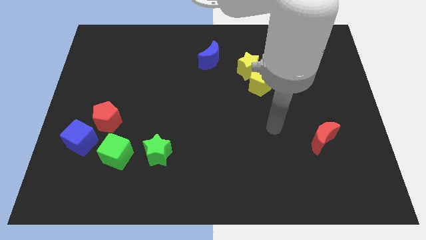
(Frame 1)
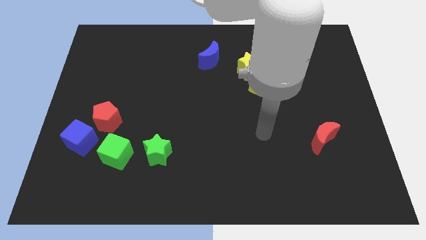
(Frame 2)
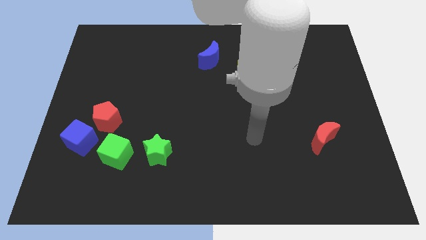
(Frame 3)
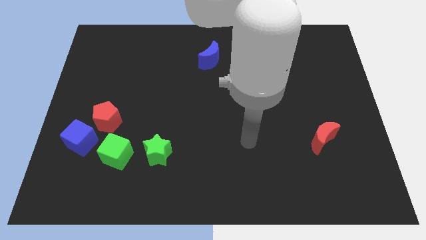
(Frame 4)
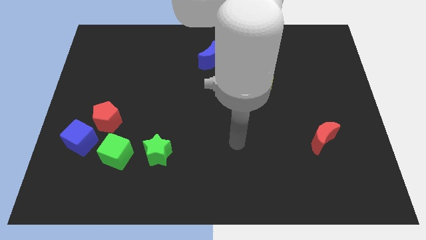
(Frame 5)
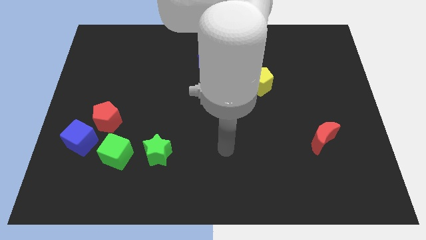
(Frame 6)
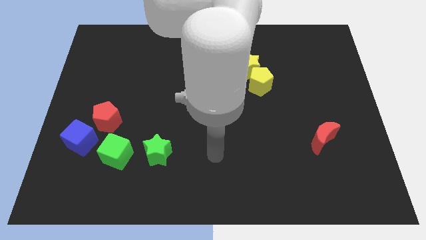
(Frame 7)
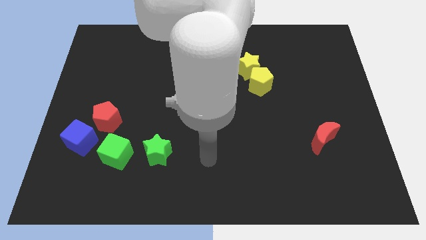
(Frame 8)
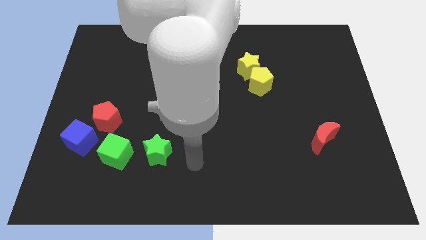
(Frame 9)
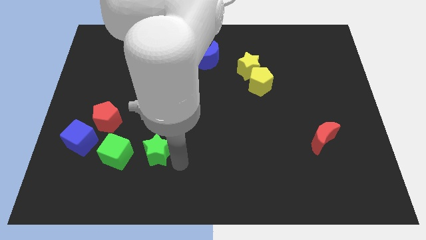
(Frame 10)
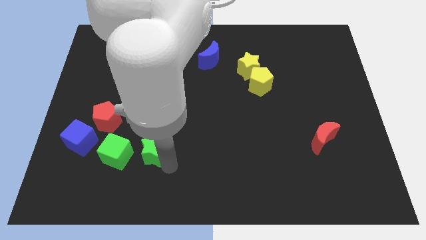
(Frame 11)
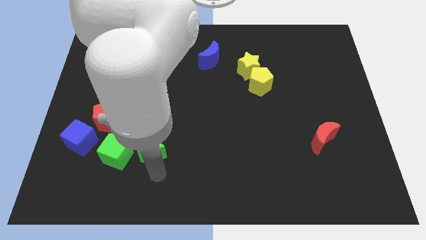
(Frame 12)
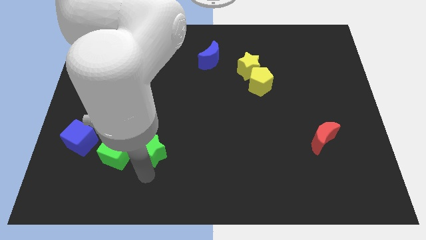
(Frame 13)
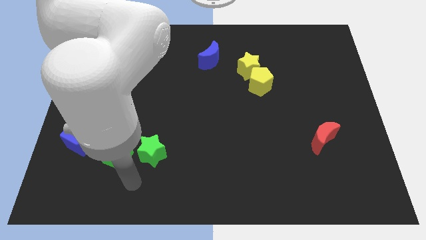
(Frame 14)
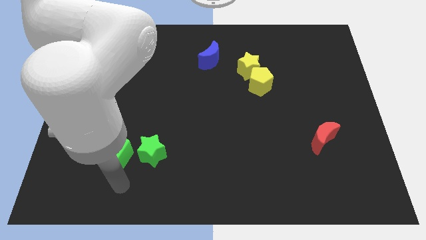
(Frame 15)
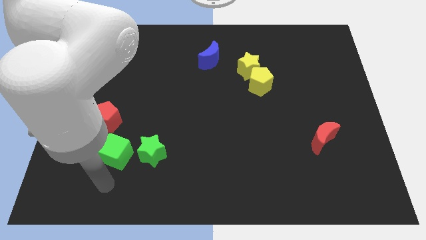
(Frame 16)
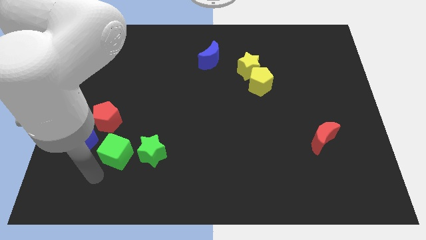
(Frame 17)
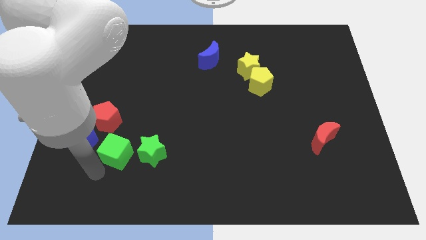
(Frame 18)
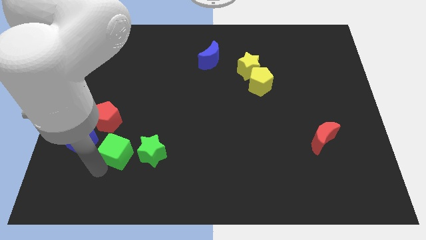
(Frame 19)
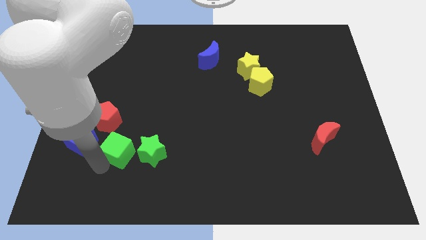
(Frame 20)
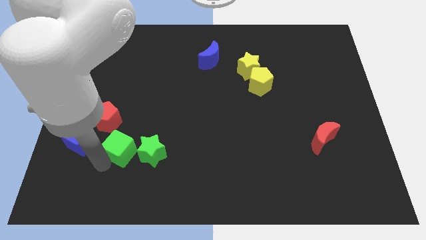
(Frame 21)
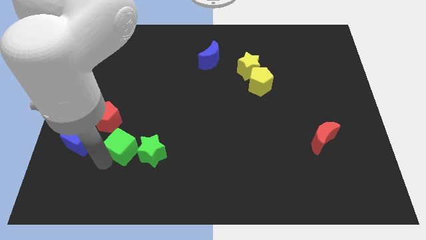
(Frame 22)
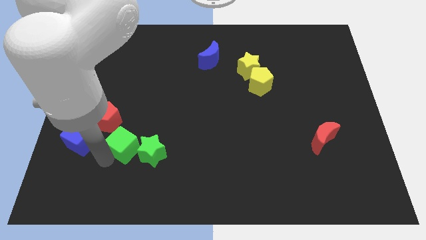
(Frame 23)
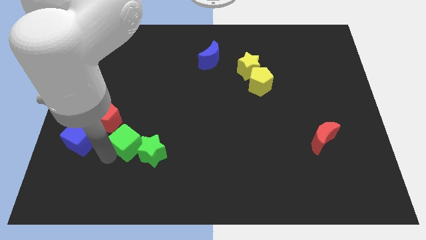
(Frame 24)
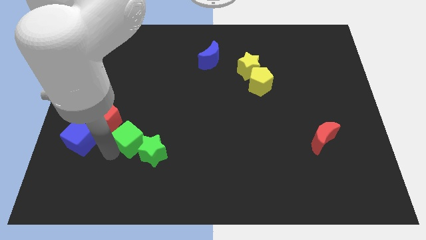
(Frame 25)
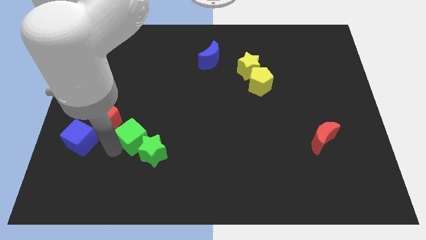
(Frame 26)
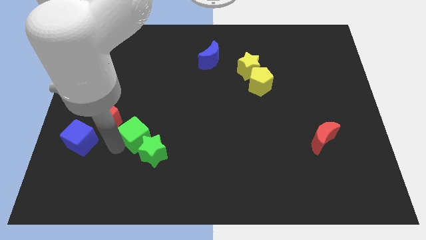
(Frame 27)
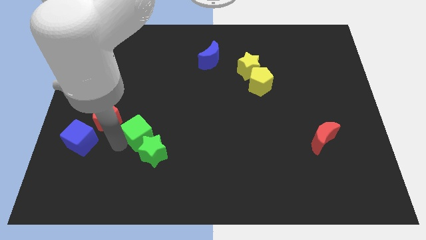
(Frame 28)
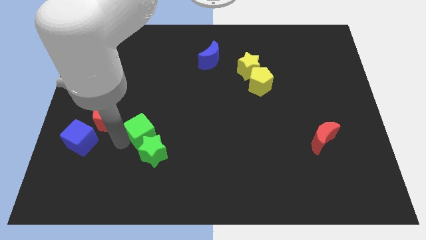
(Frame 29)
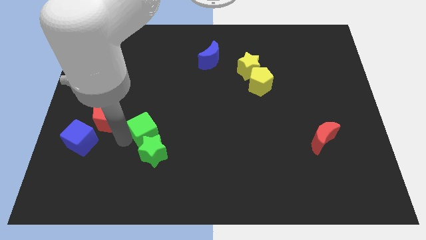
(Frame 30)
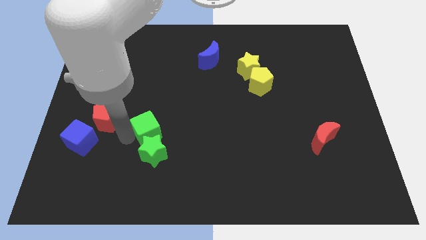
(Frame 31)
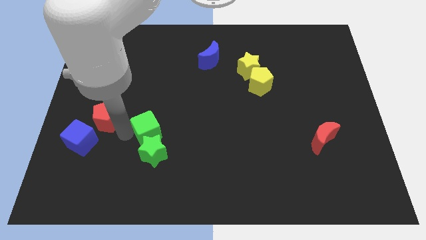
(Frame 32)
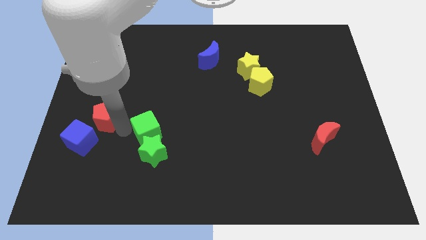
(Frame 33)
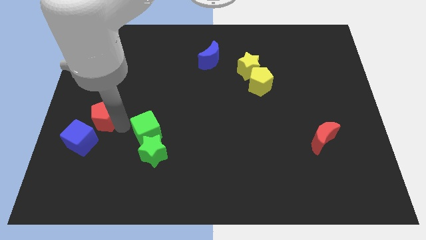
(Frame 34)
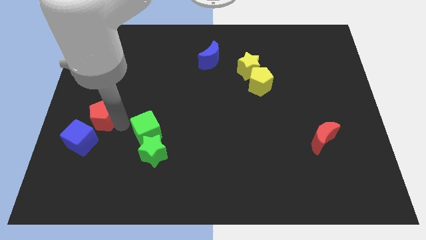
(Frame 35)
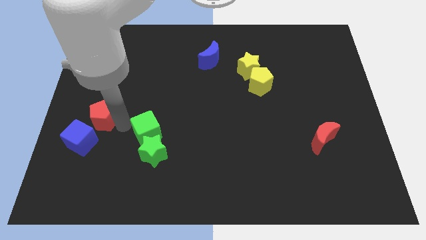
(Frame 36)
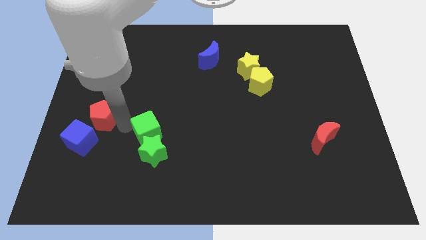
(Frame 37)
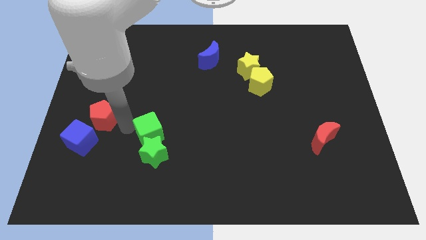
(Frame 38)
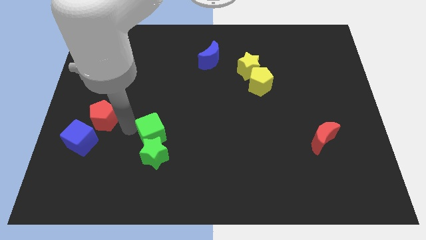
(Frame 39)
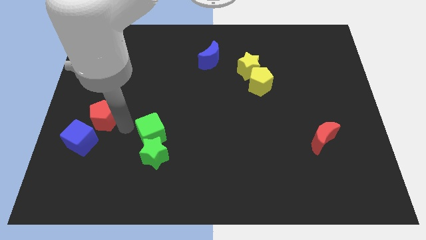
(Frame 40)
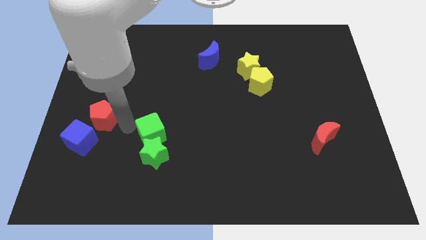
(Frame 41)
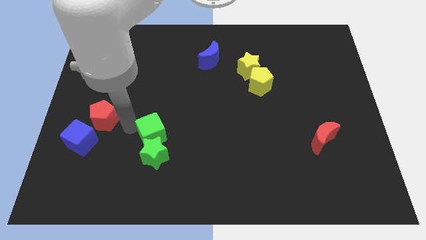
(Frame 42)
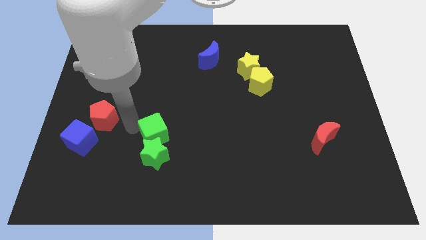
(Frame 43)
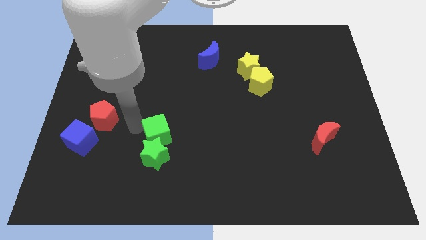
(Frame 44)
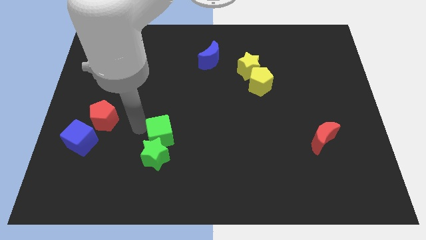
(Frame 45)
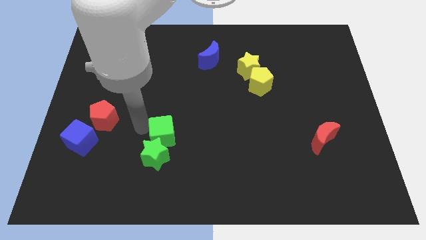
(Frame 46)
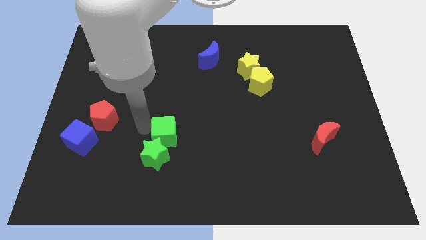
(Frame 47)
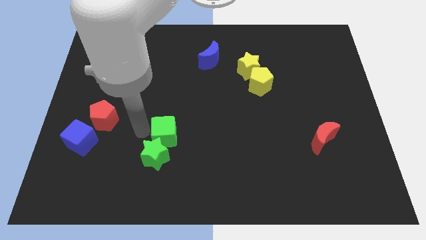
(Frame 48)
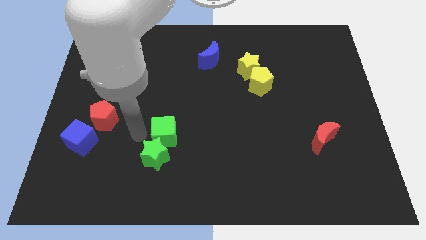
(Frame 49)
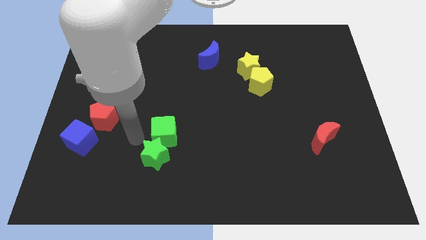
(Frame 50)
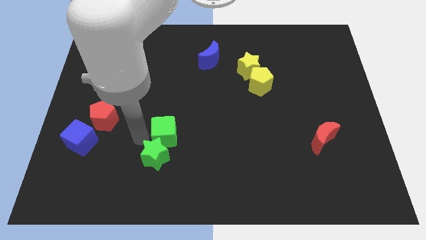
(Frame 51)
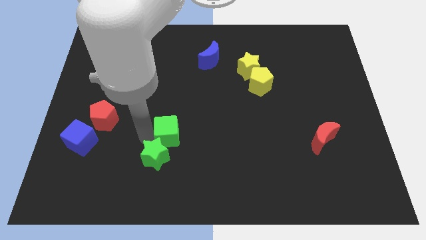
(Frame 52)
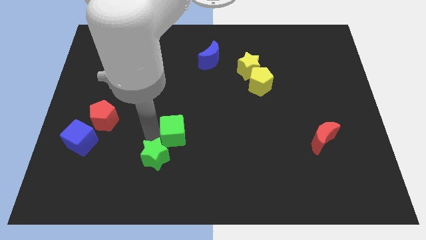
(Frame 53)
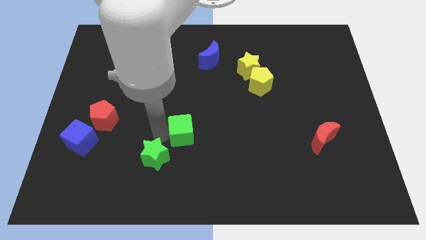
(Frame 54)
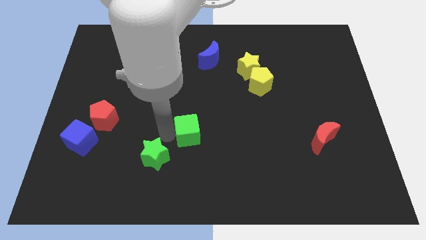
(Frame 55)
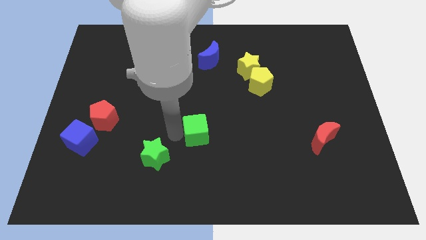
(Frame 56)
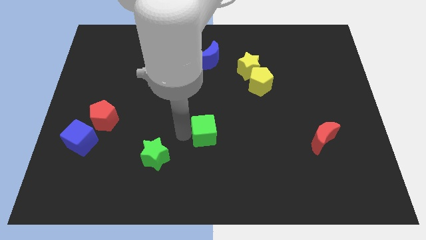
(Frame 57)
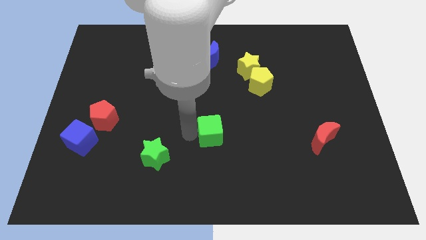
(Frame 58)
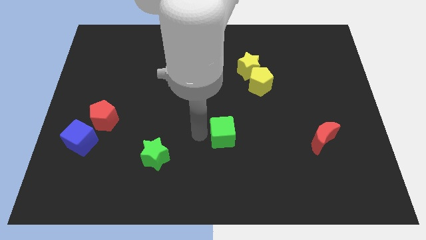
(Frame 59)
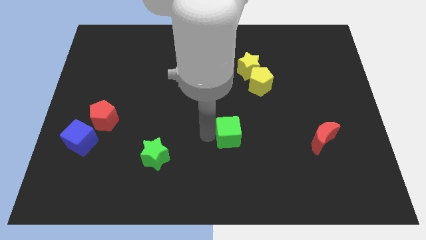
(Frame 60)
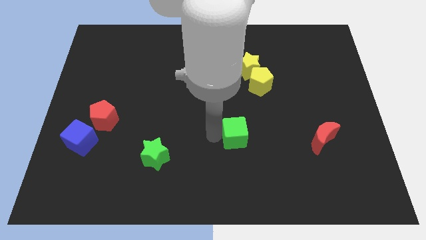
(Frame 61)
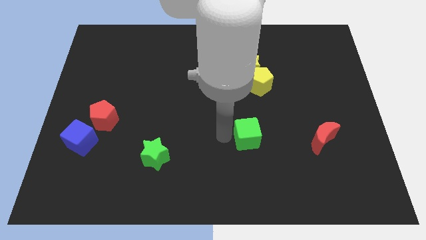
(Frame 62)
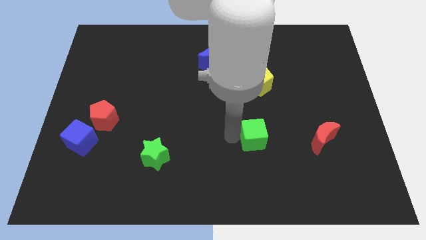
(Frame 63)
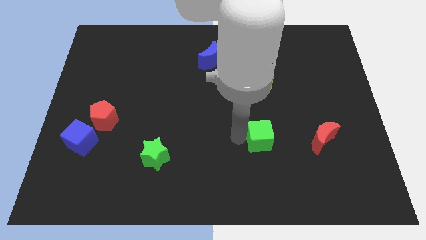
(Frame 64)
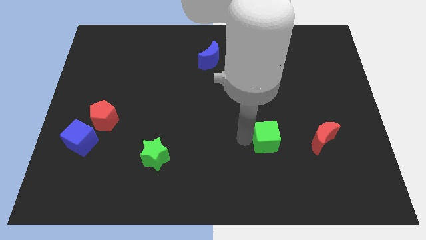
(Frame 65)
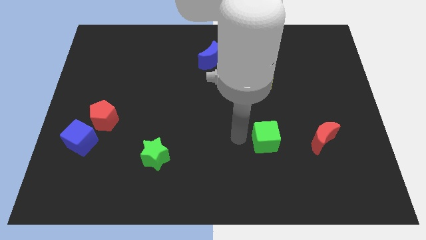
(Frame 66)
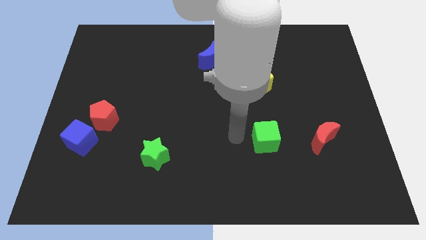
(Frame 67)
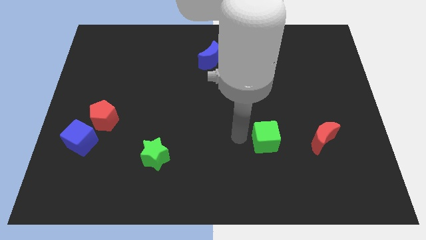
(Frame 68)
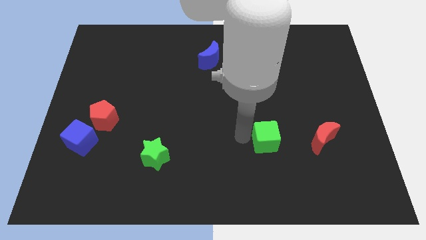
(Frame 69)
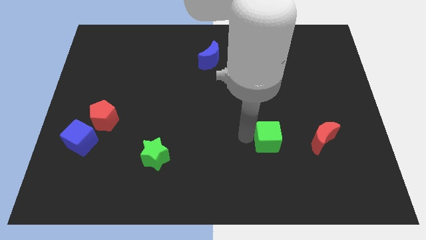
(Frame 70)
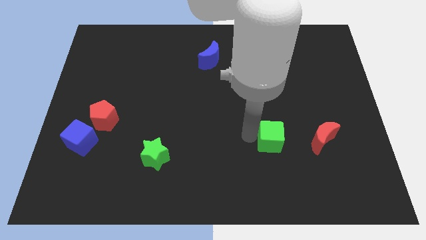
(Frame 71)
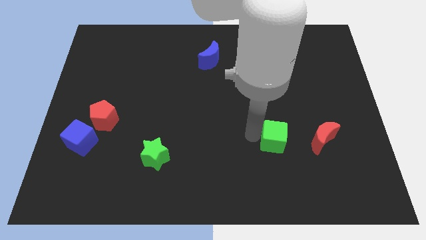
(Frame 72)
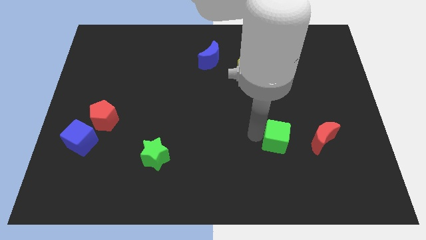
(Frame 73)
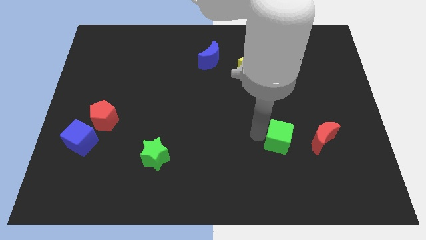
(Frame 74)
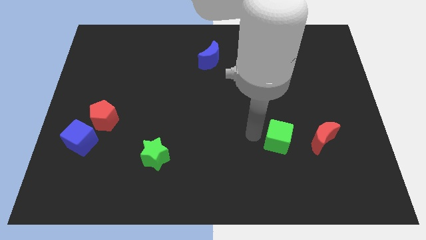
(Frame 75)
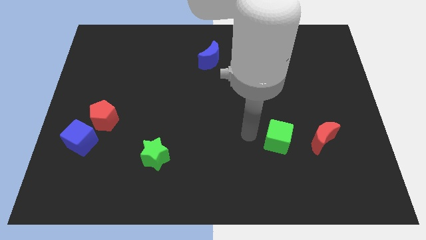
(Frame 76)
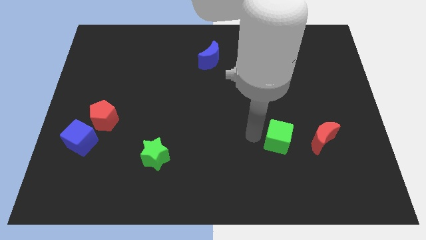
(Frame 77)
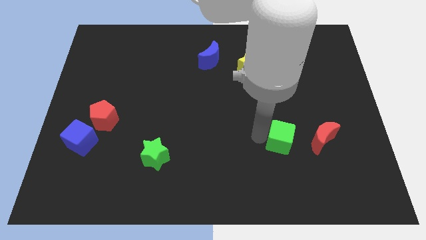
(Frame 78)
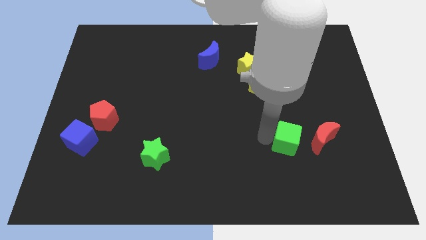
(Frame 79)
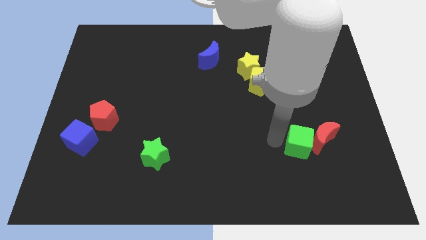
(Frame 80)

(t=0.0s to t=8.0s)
push the green cube towards the red moon
